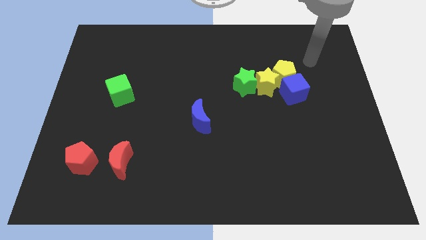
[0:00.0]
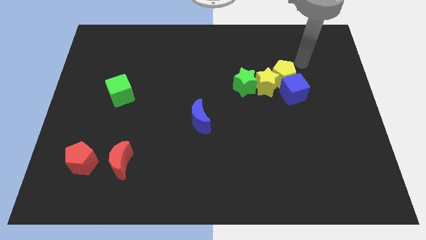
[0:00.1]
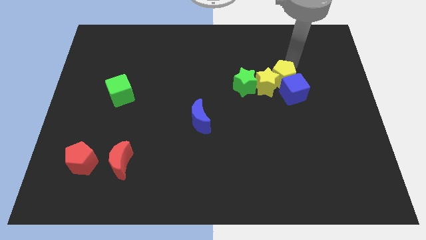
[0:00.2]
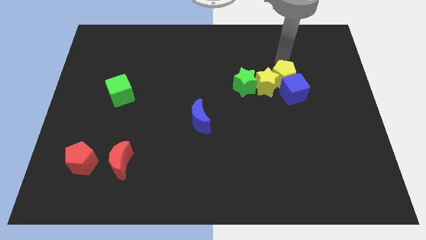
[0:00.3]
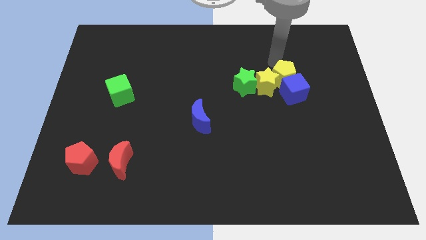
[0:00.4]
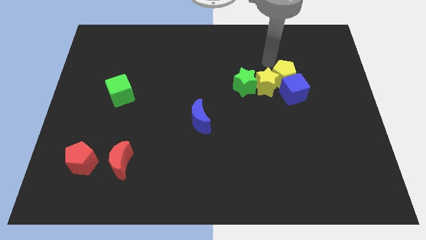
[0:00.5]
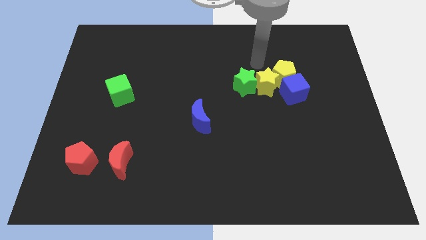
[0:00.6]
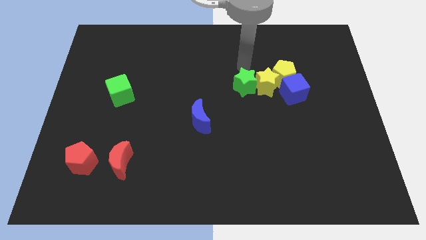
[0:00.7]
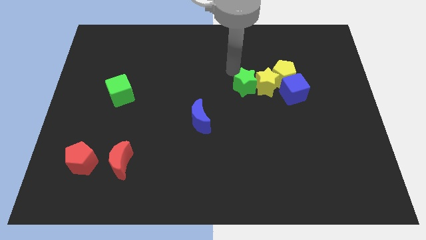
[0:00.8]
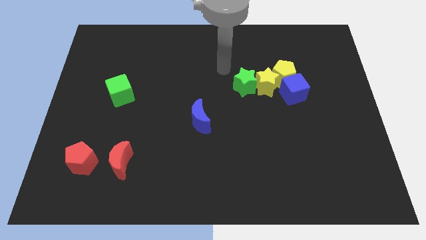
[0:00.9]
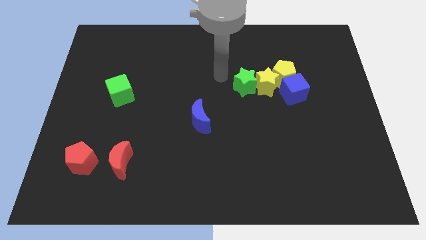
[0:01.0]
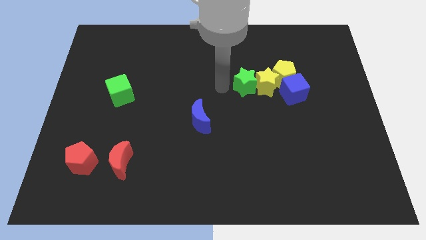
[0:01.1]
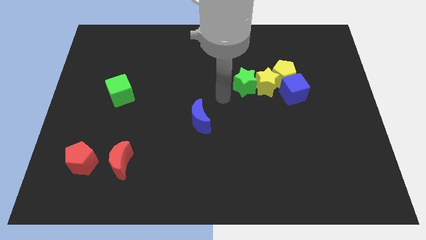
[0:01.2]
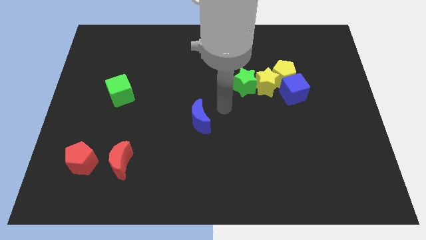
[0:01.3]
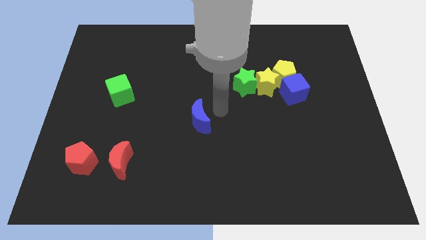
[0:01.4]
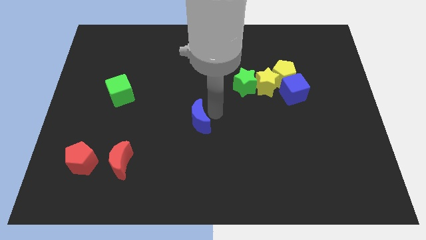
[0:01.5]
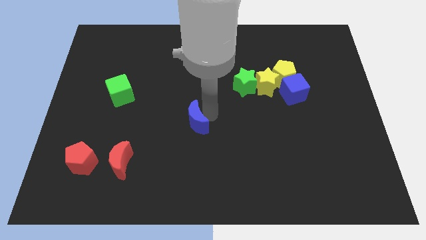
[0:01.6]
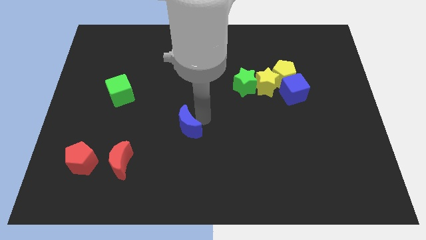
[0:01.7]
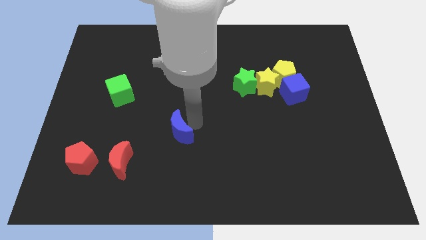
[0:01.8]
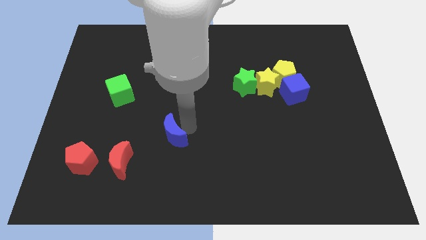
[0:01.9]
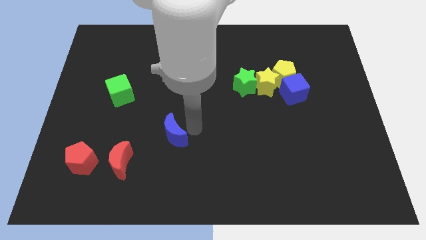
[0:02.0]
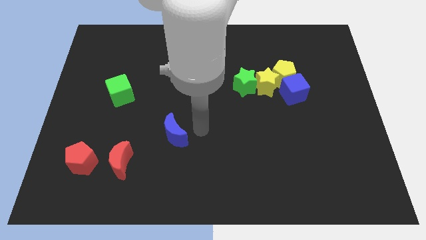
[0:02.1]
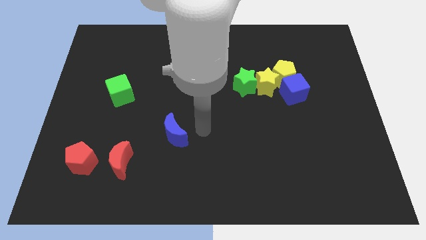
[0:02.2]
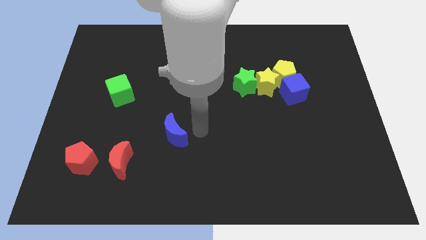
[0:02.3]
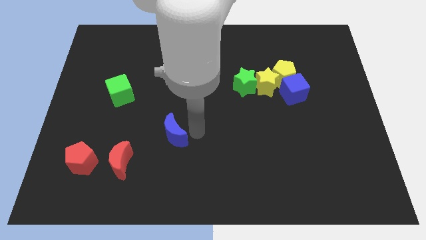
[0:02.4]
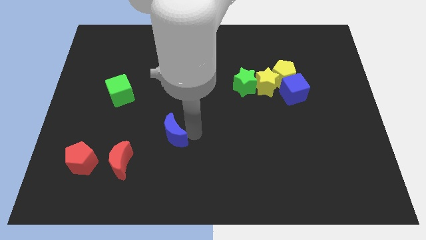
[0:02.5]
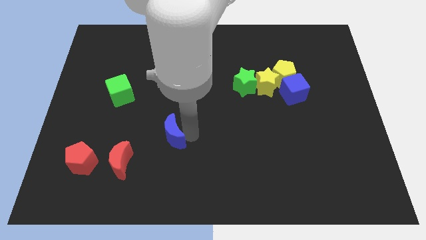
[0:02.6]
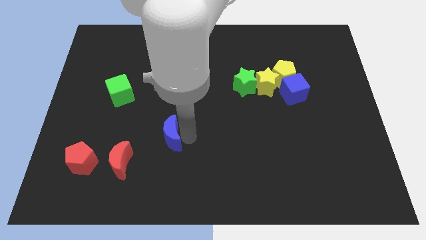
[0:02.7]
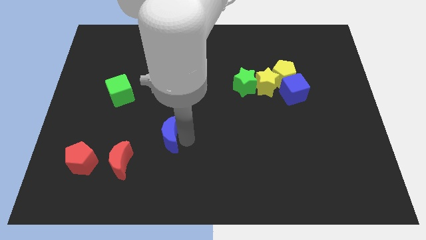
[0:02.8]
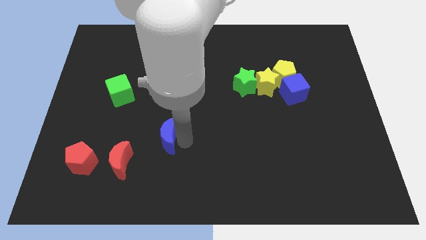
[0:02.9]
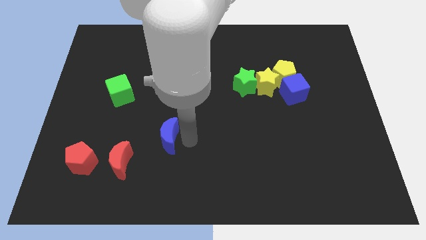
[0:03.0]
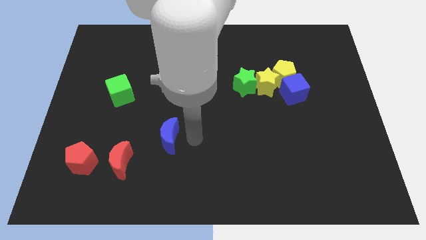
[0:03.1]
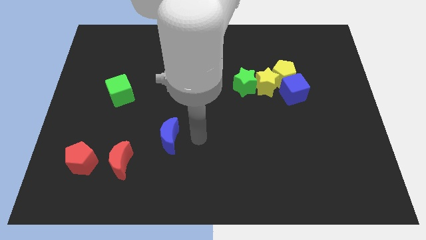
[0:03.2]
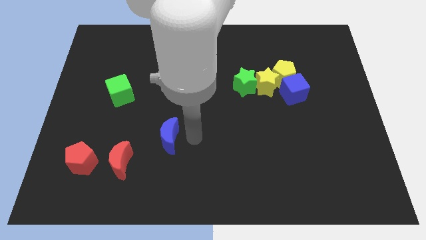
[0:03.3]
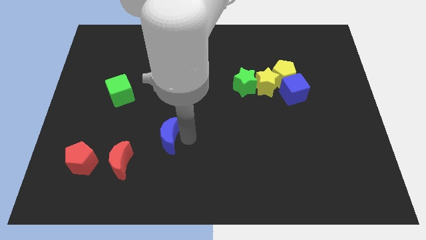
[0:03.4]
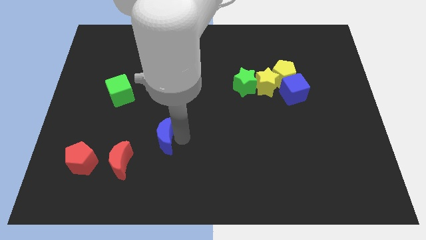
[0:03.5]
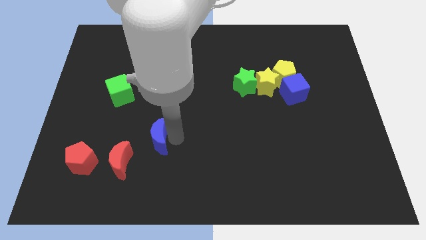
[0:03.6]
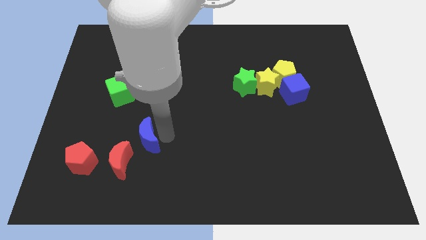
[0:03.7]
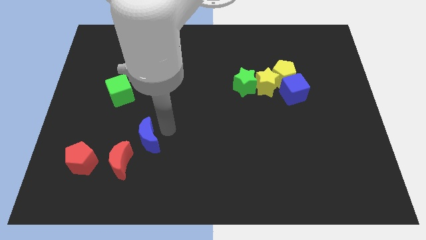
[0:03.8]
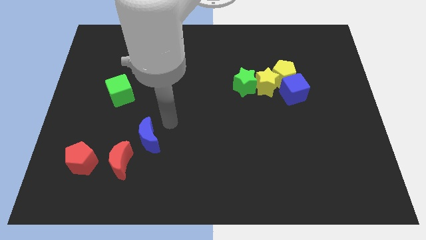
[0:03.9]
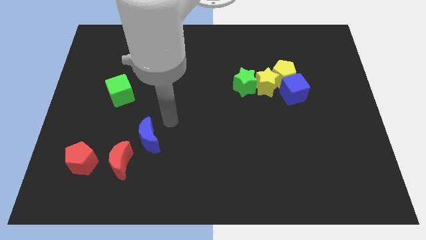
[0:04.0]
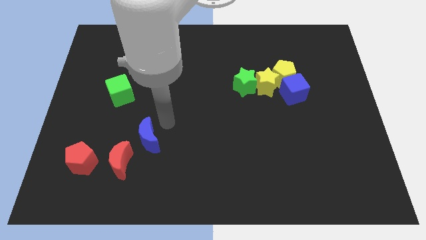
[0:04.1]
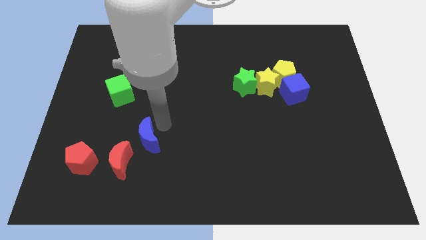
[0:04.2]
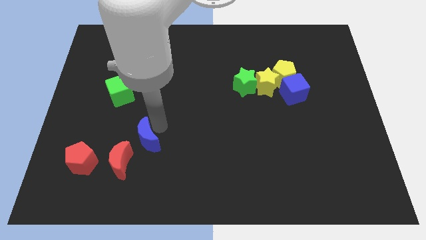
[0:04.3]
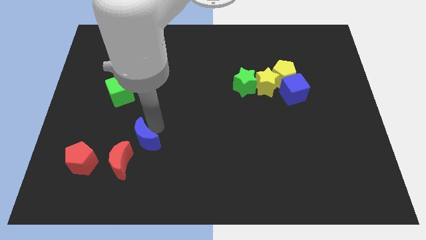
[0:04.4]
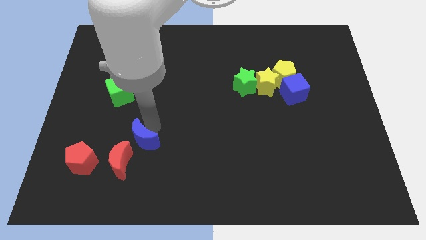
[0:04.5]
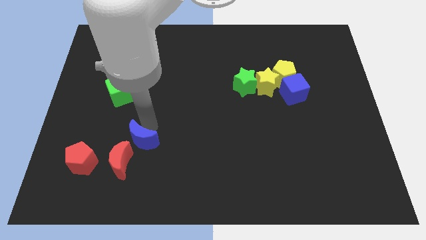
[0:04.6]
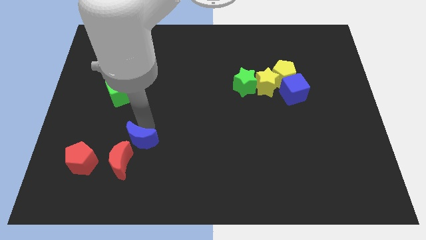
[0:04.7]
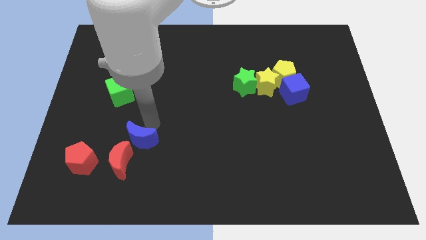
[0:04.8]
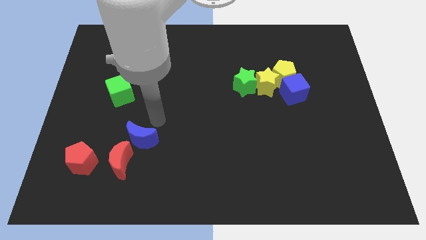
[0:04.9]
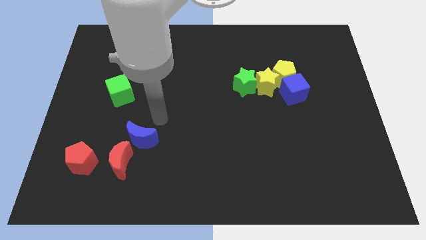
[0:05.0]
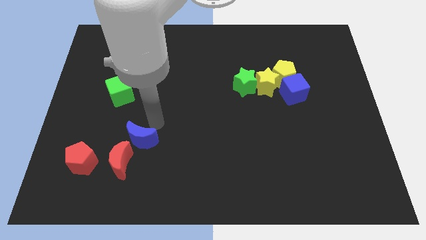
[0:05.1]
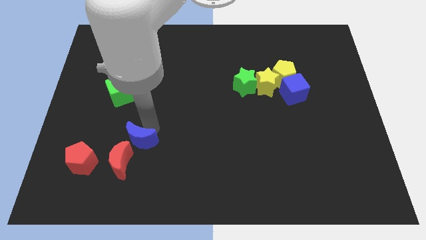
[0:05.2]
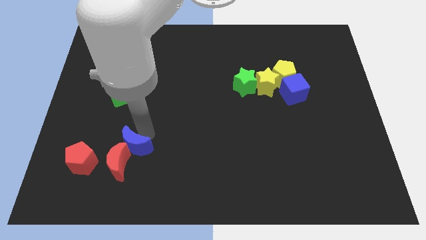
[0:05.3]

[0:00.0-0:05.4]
put the blue moon to the red moon

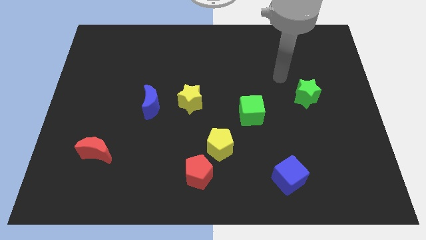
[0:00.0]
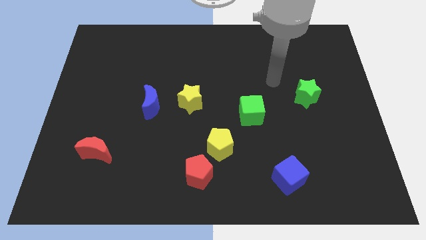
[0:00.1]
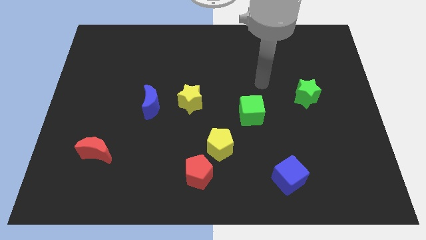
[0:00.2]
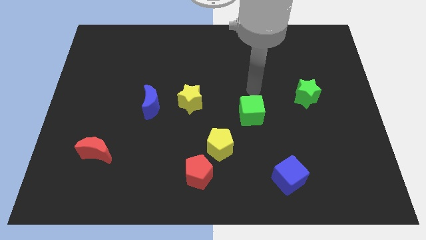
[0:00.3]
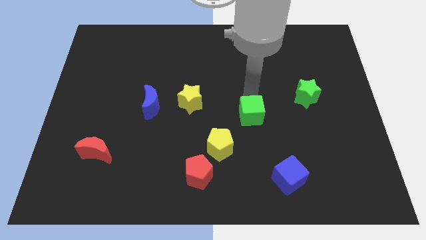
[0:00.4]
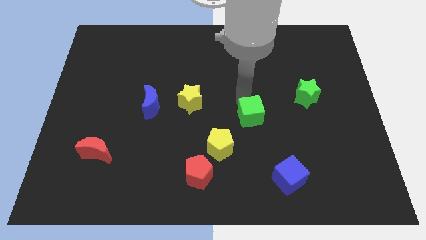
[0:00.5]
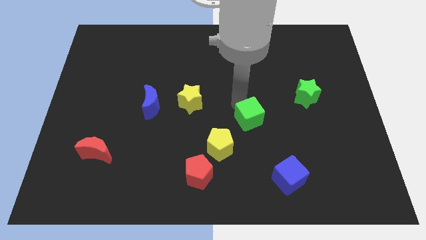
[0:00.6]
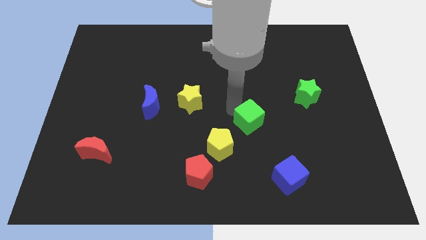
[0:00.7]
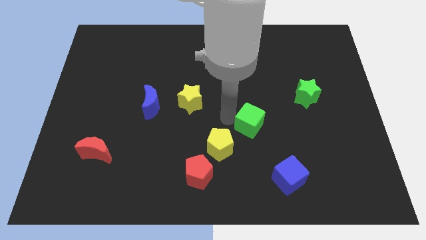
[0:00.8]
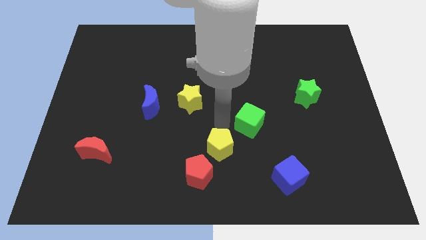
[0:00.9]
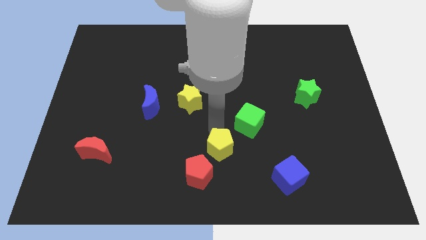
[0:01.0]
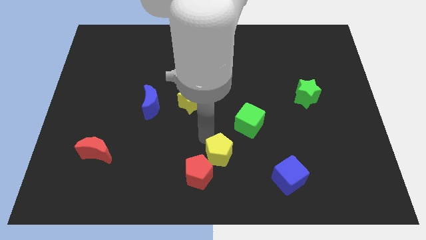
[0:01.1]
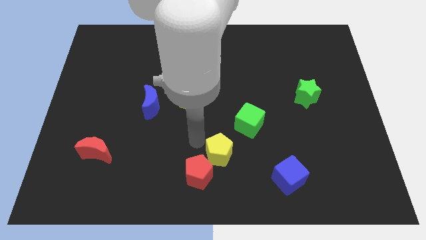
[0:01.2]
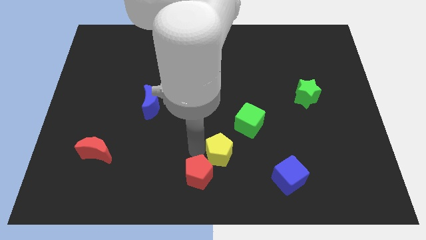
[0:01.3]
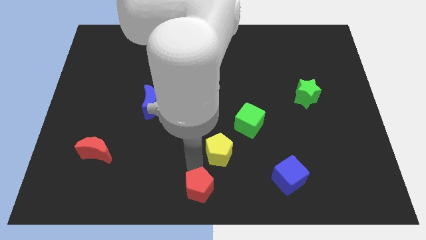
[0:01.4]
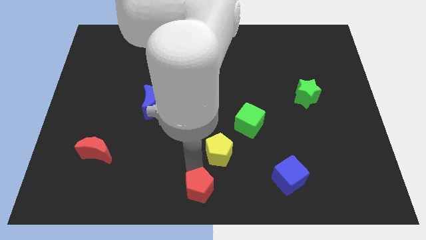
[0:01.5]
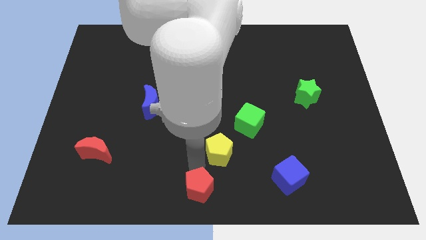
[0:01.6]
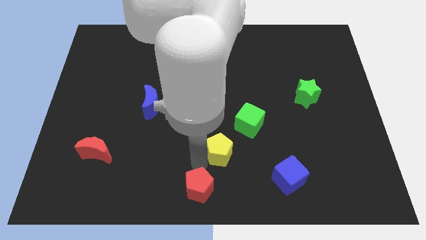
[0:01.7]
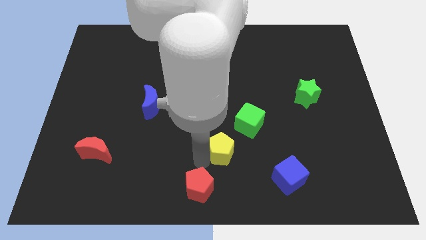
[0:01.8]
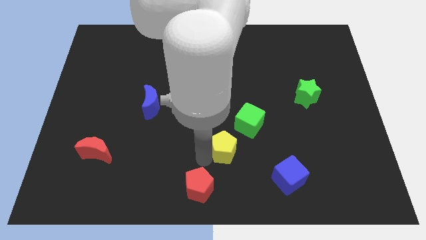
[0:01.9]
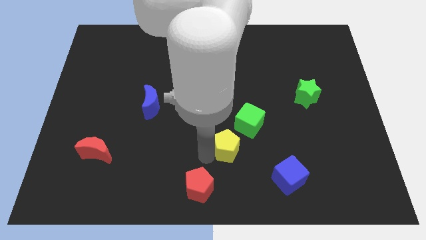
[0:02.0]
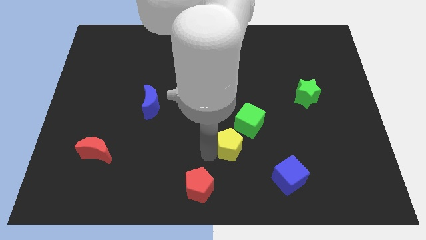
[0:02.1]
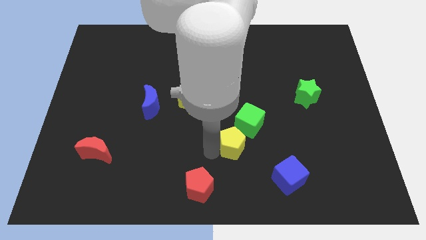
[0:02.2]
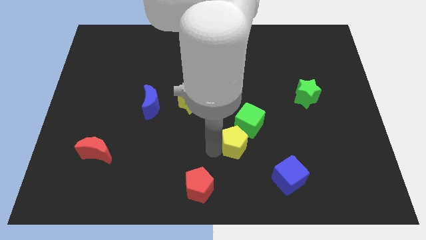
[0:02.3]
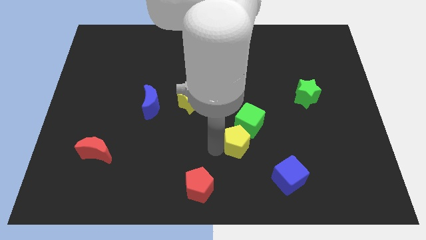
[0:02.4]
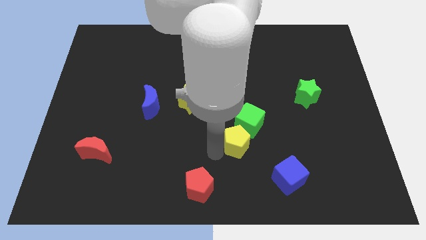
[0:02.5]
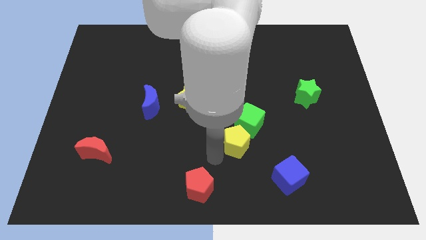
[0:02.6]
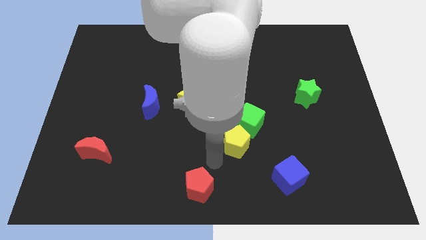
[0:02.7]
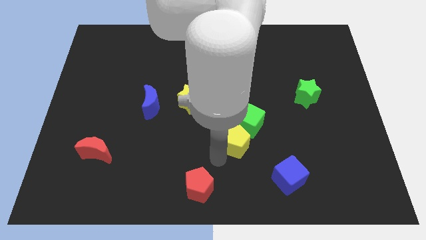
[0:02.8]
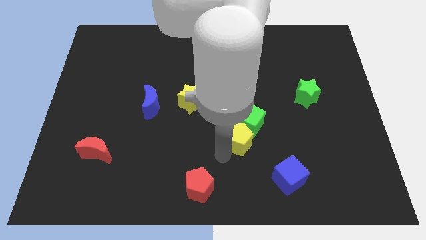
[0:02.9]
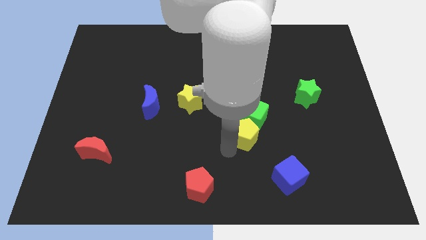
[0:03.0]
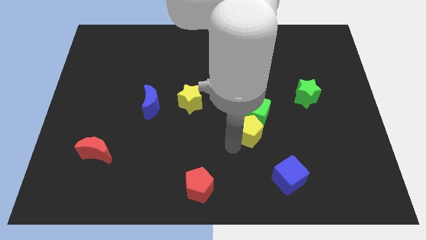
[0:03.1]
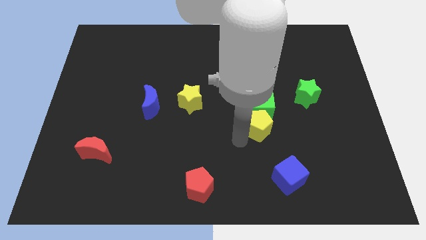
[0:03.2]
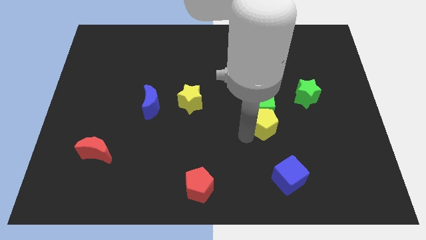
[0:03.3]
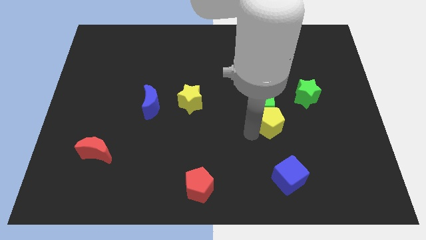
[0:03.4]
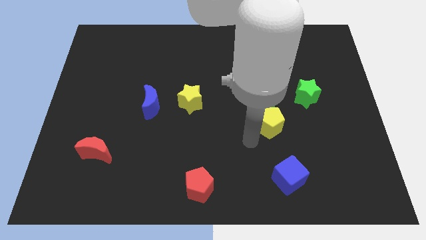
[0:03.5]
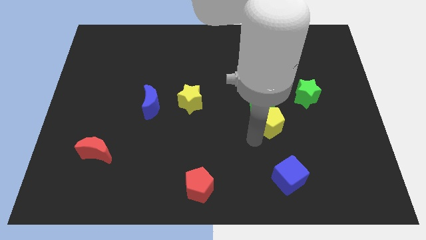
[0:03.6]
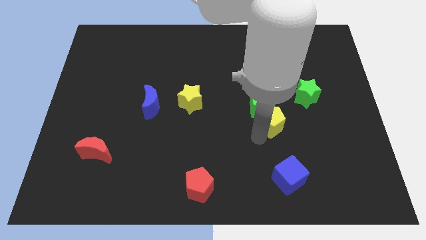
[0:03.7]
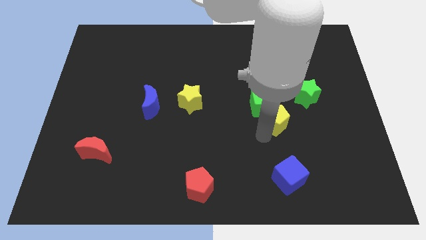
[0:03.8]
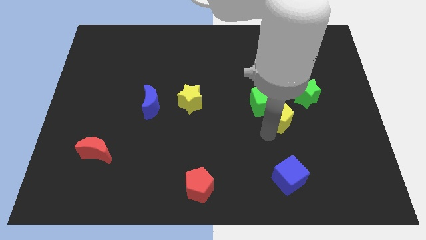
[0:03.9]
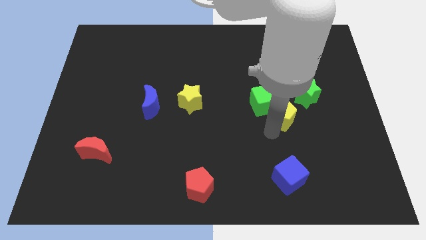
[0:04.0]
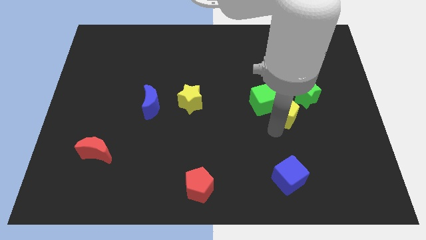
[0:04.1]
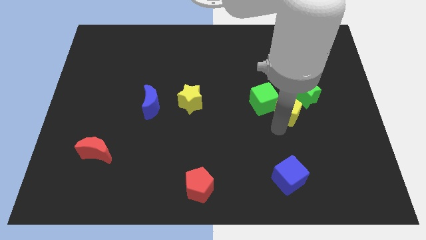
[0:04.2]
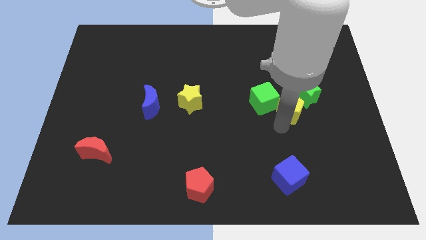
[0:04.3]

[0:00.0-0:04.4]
move the yellow pentagon close to the green star
